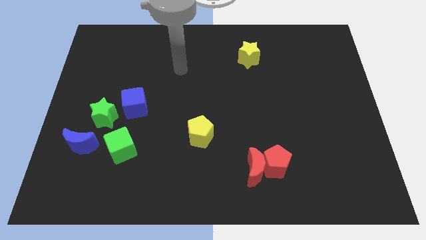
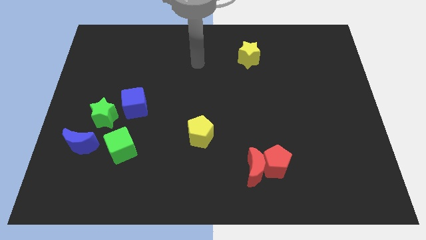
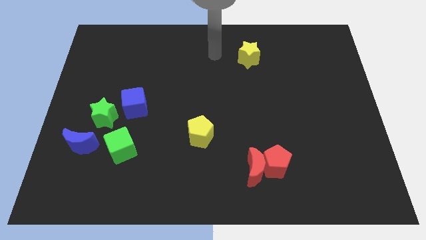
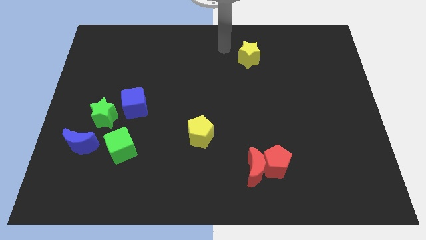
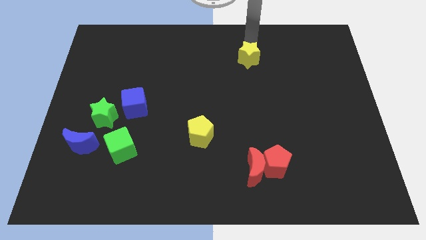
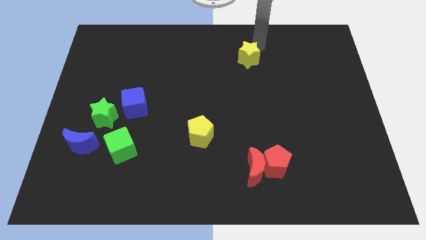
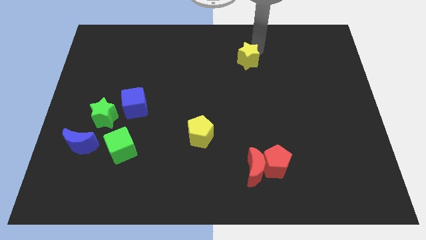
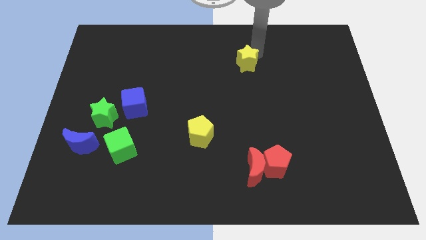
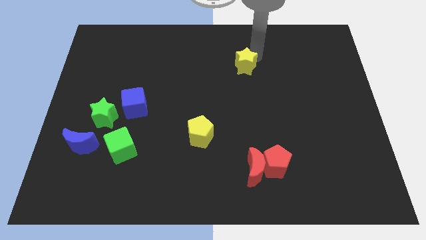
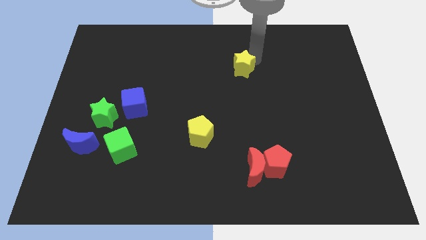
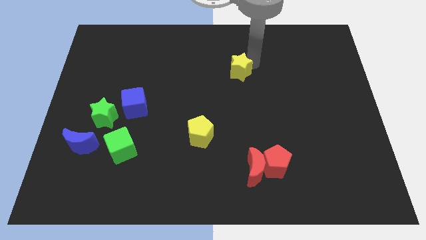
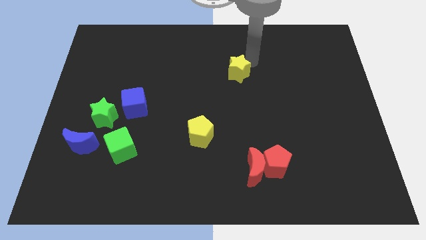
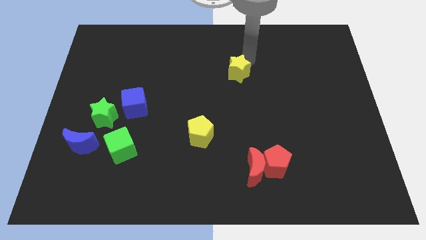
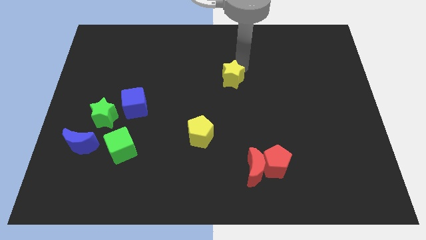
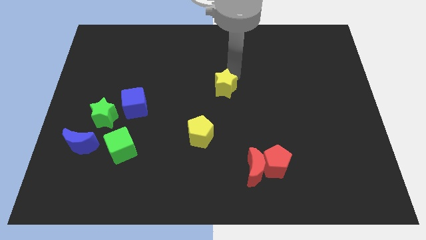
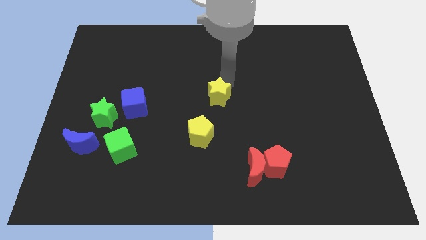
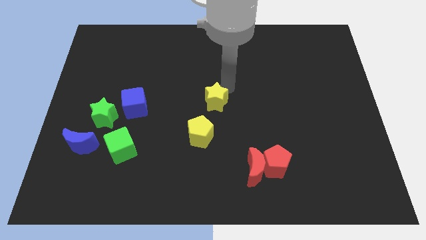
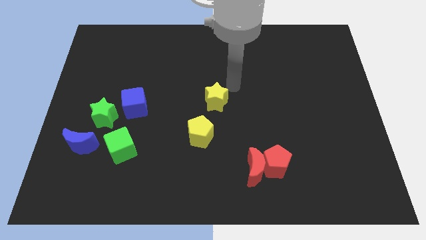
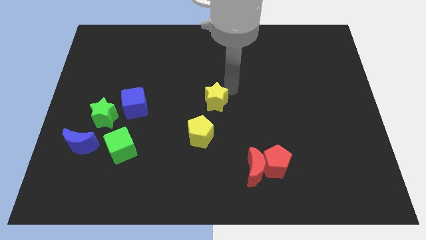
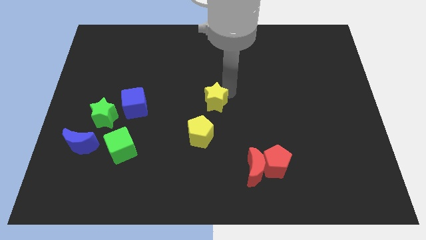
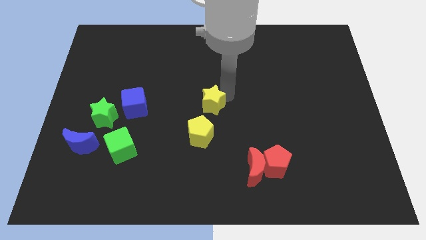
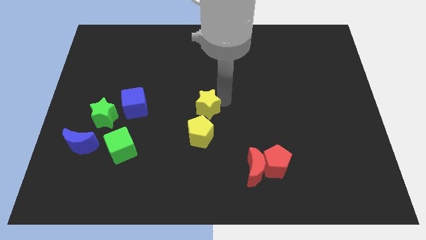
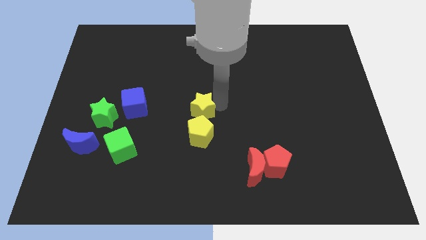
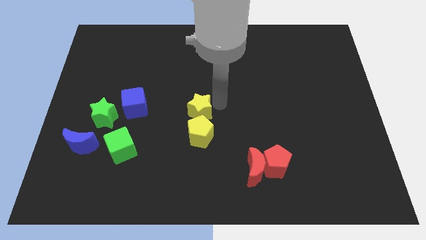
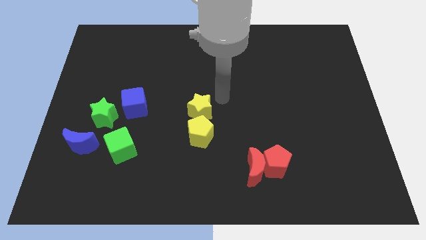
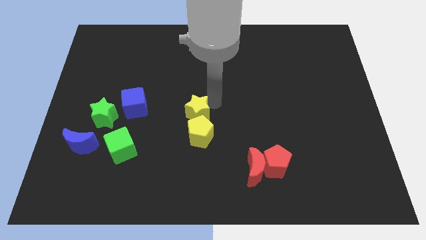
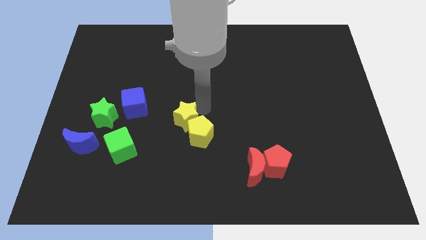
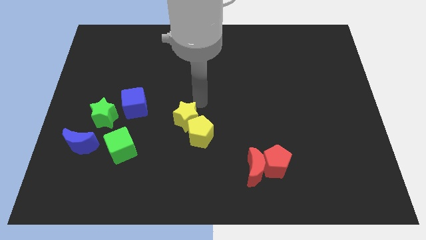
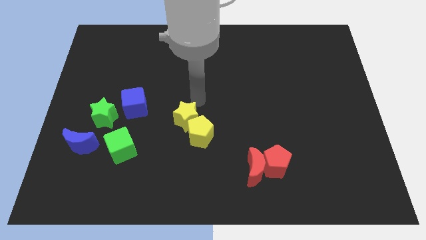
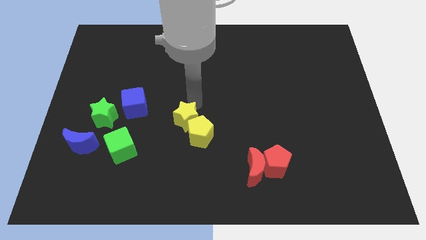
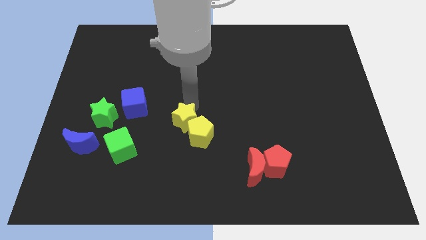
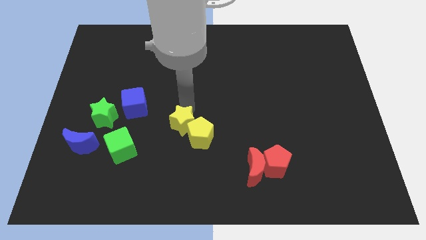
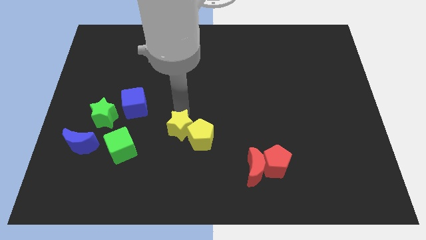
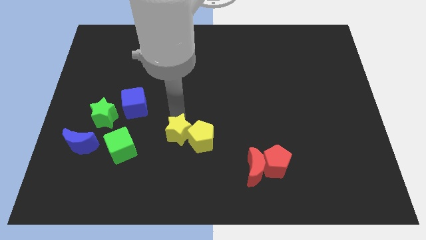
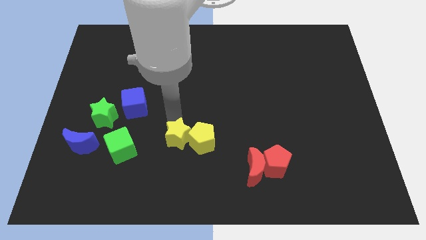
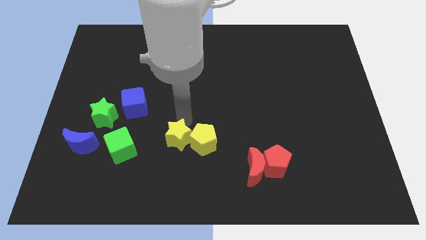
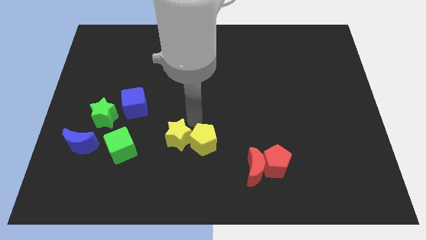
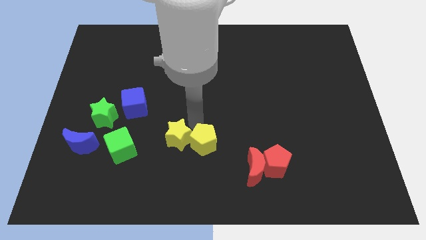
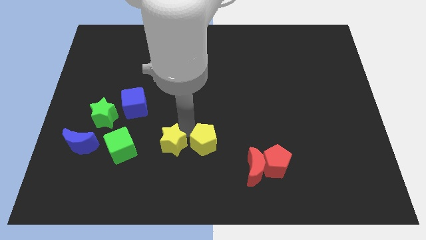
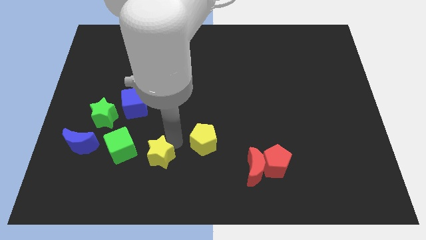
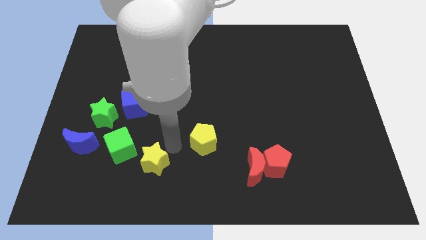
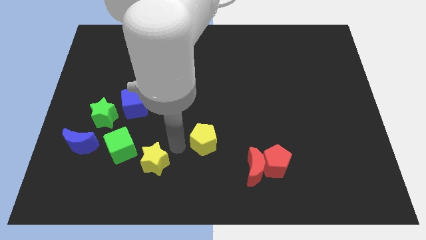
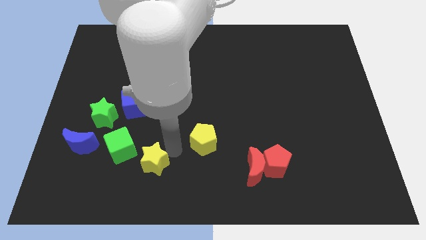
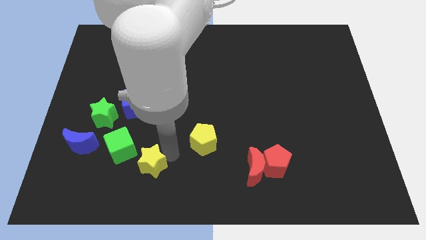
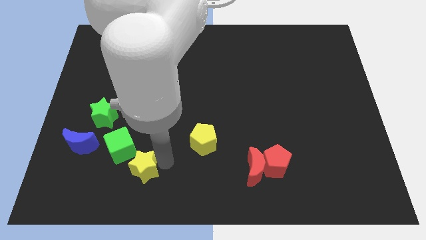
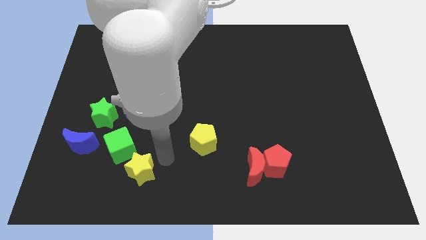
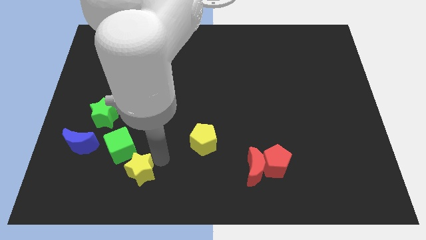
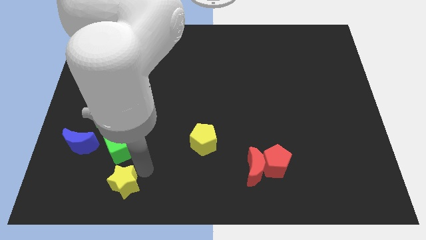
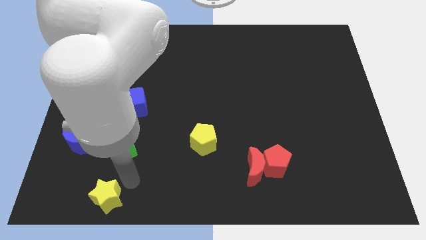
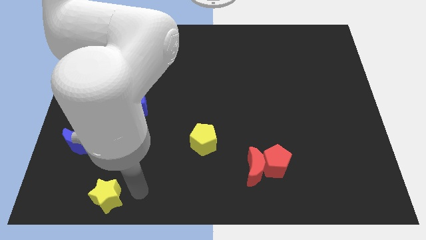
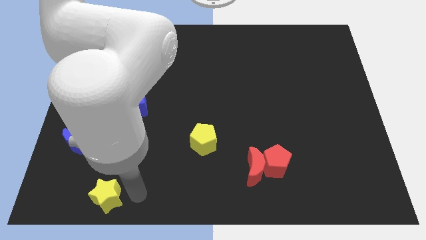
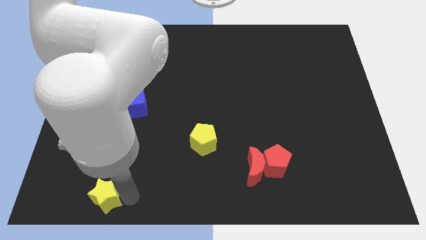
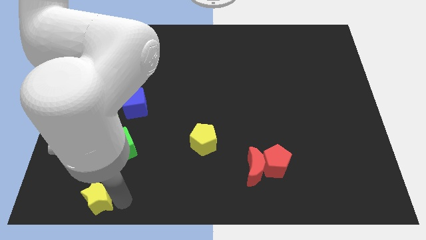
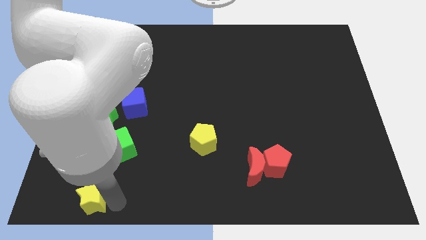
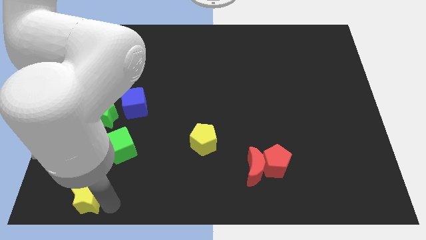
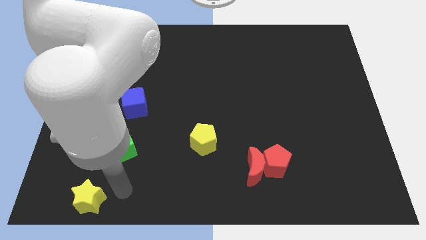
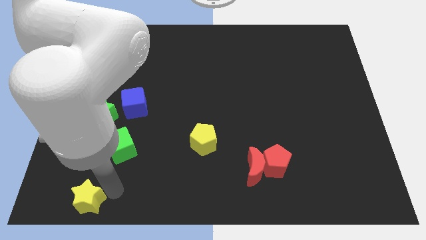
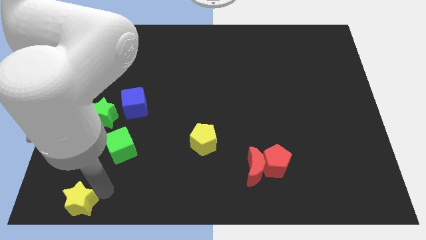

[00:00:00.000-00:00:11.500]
move the yellow star to the bottom left

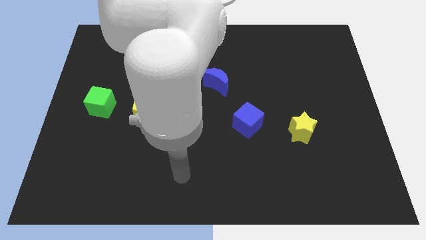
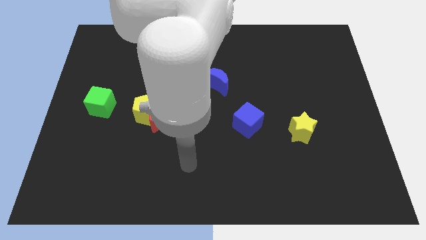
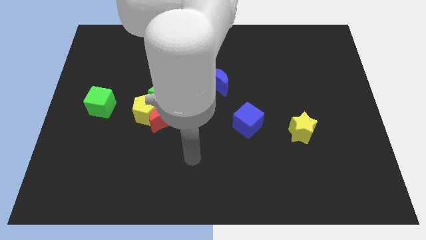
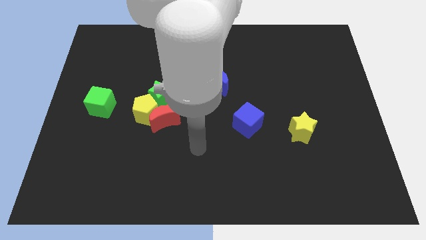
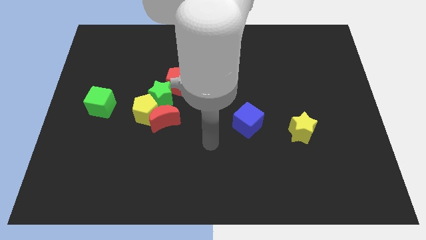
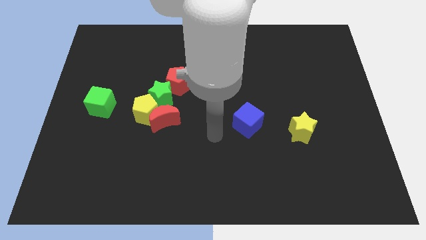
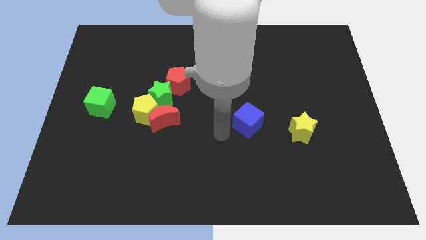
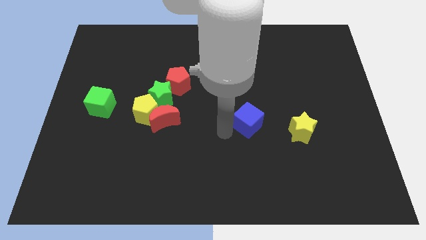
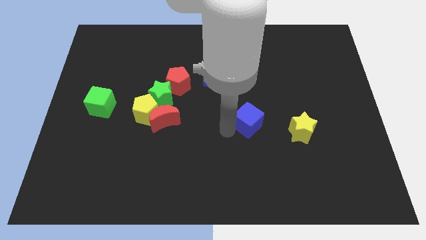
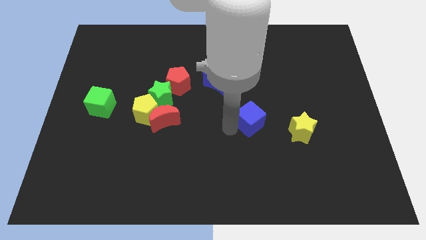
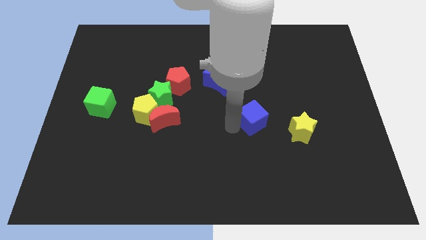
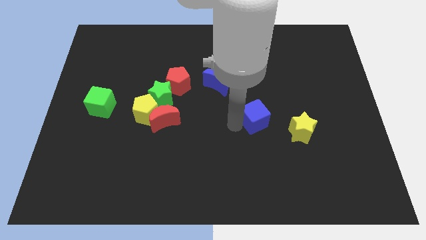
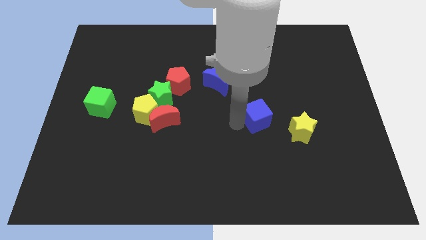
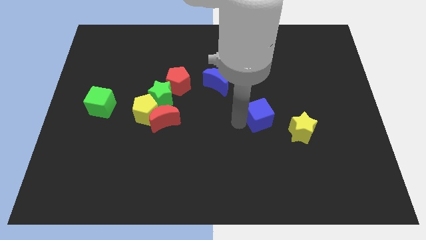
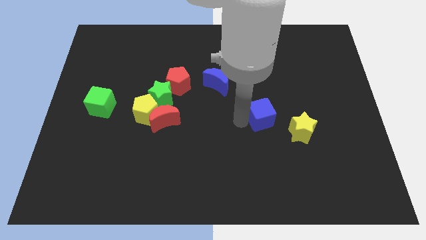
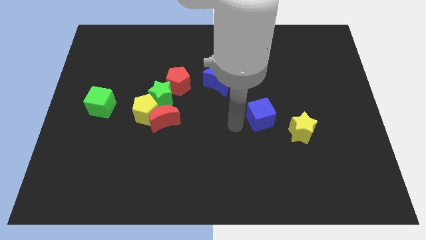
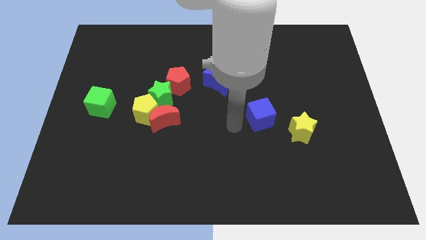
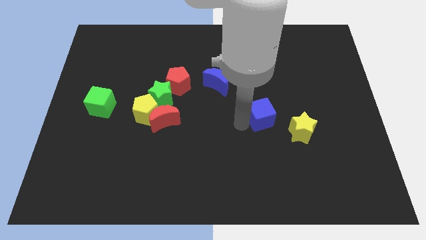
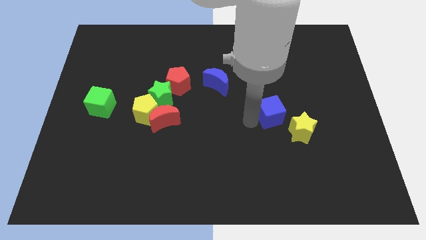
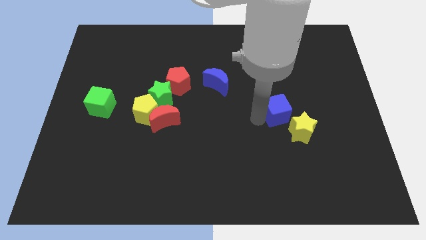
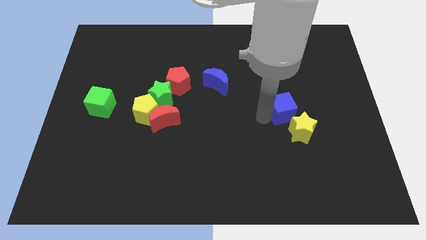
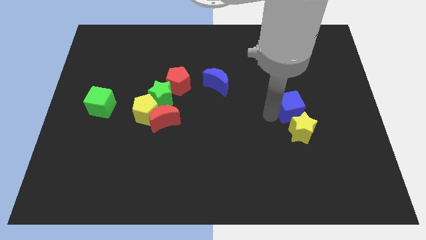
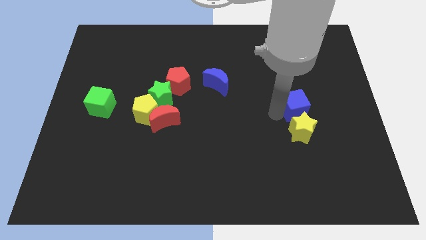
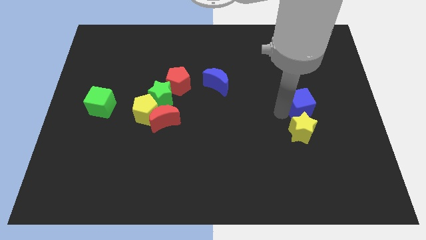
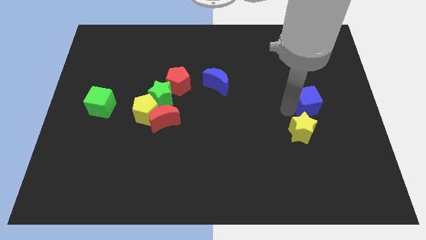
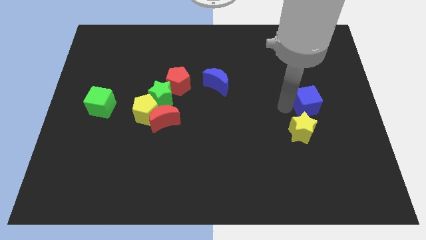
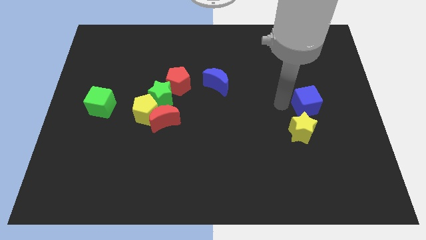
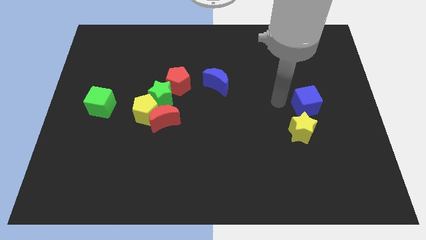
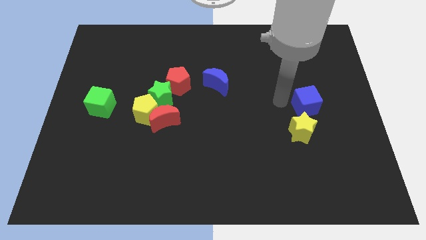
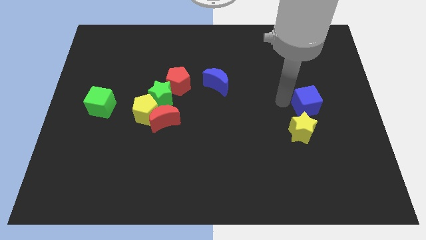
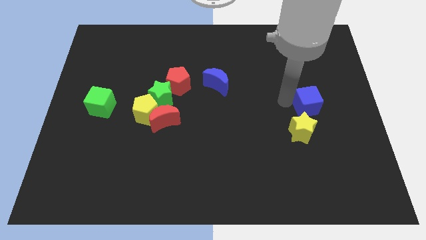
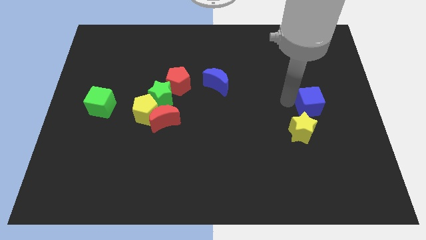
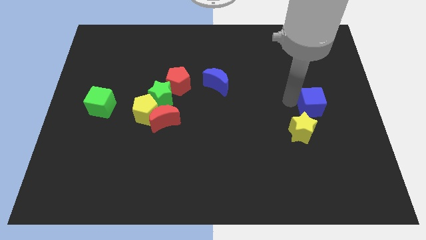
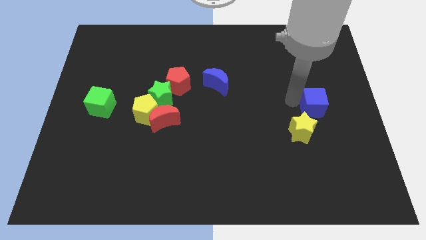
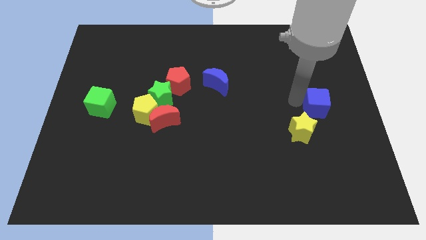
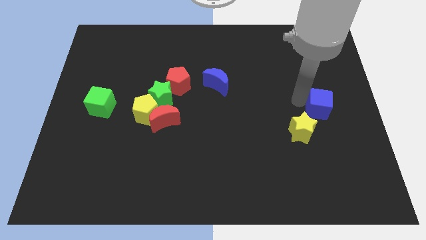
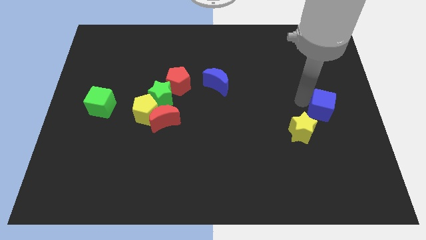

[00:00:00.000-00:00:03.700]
push the blue cube to the center right
